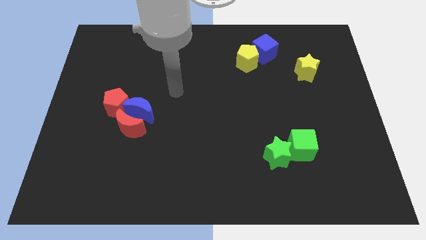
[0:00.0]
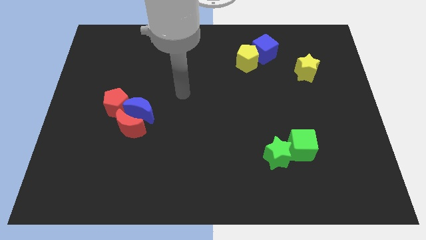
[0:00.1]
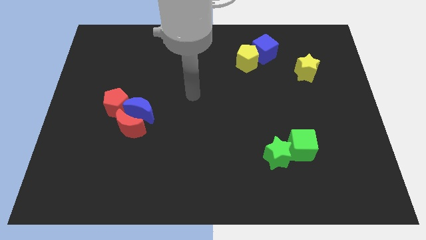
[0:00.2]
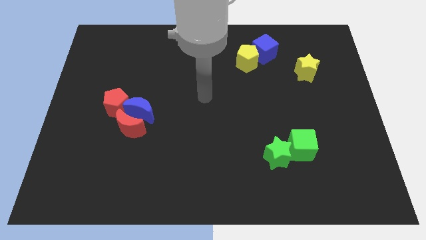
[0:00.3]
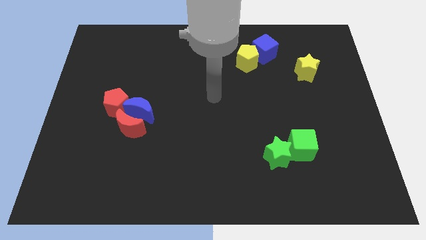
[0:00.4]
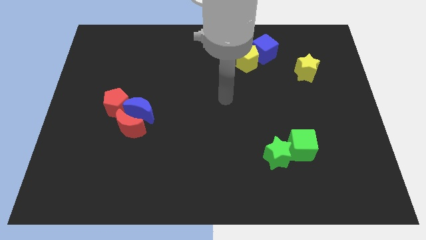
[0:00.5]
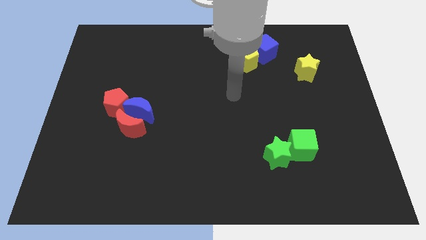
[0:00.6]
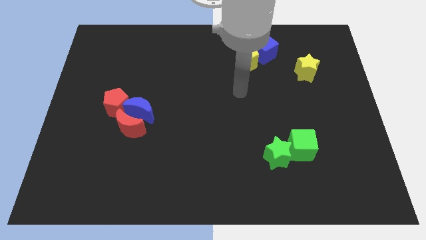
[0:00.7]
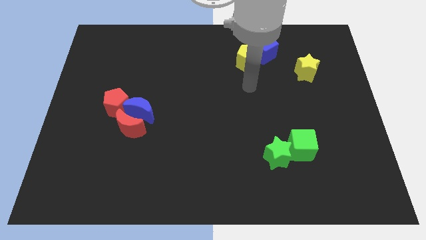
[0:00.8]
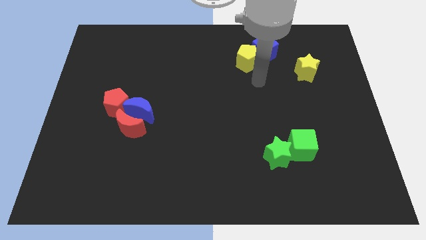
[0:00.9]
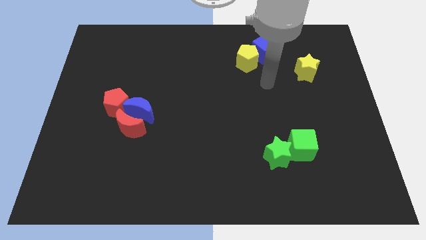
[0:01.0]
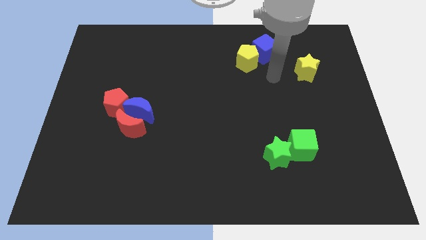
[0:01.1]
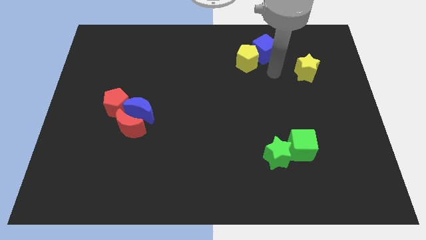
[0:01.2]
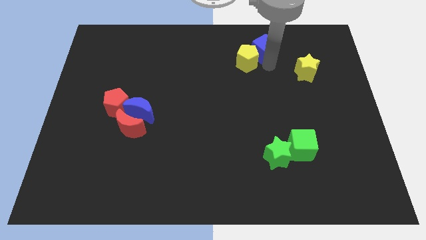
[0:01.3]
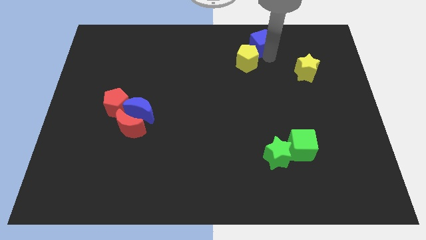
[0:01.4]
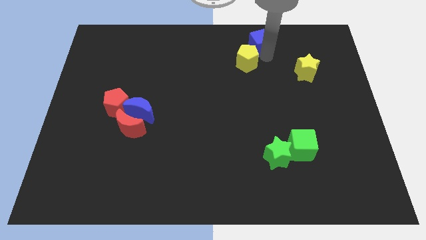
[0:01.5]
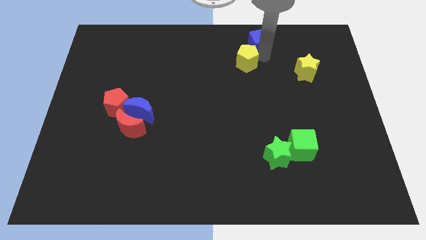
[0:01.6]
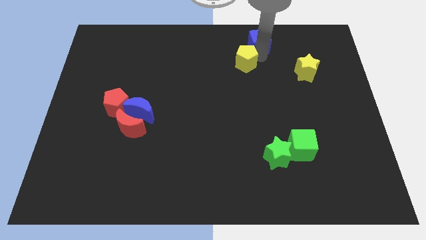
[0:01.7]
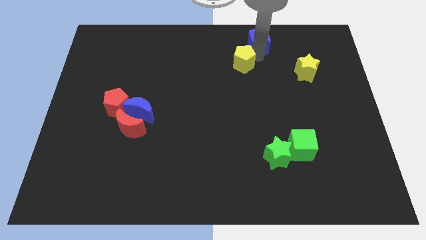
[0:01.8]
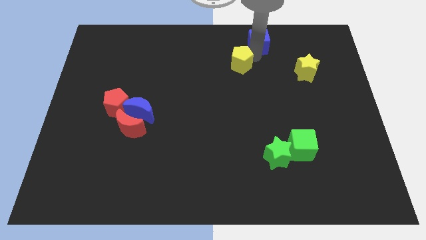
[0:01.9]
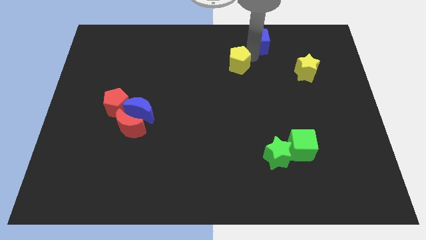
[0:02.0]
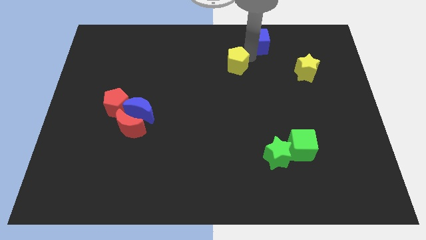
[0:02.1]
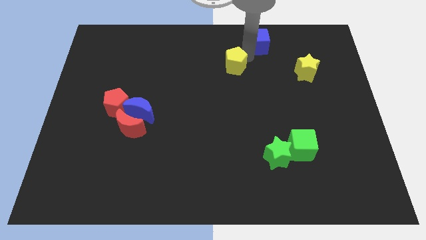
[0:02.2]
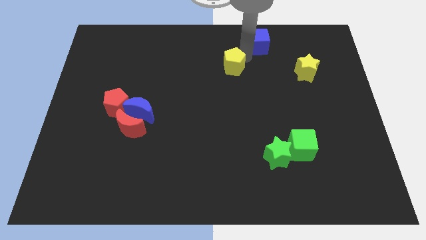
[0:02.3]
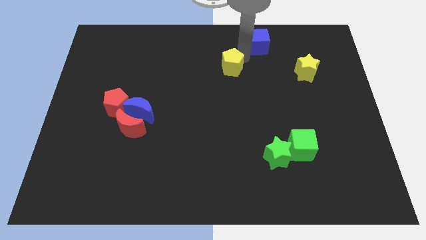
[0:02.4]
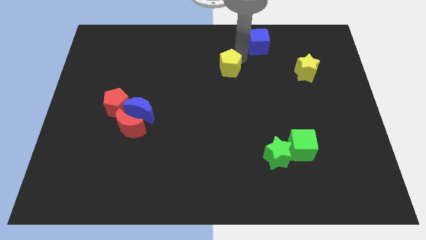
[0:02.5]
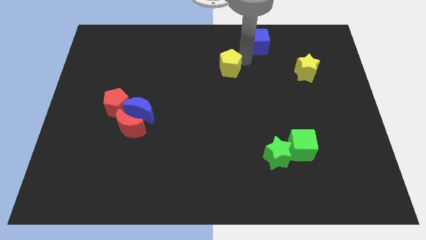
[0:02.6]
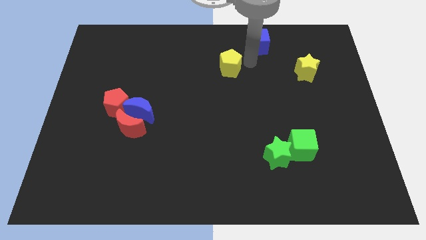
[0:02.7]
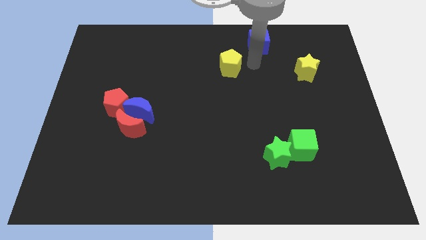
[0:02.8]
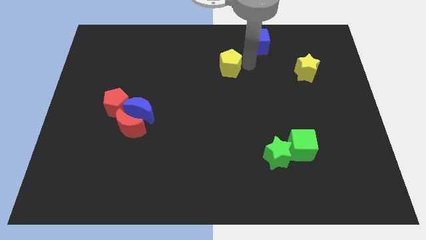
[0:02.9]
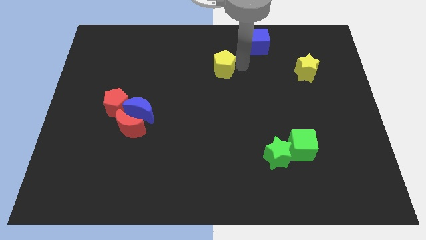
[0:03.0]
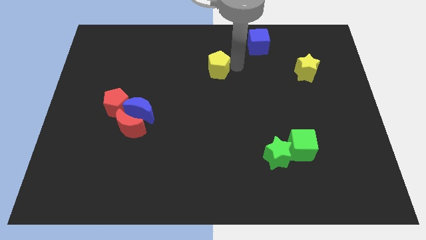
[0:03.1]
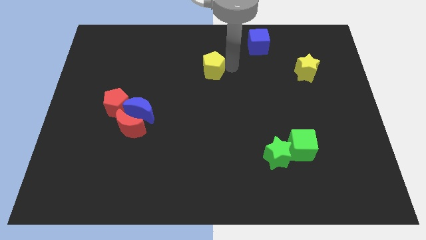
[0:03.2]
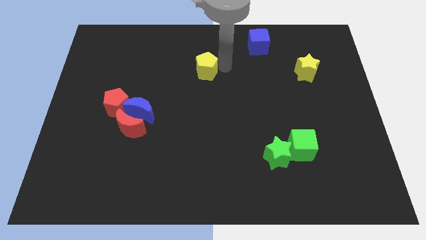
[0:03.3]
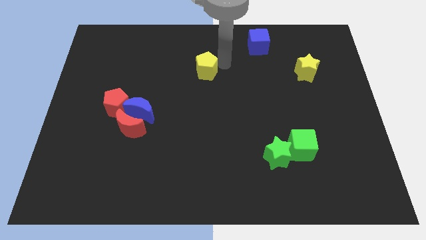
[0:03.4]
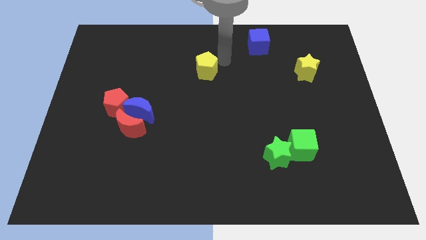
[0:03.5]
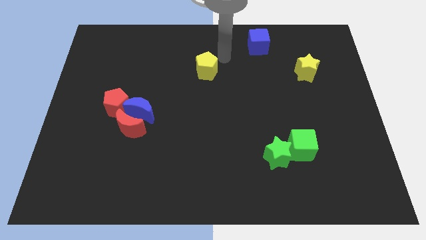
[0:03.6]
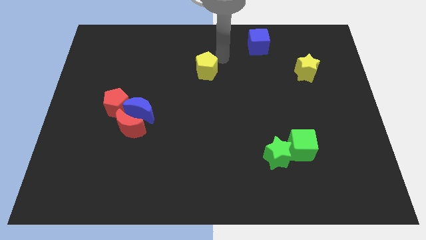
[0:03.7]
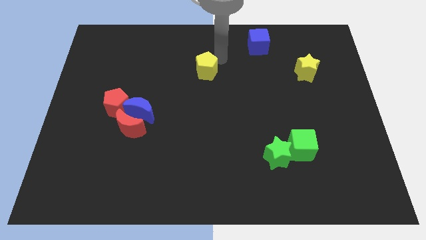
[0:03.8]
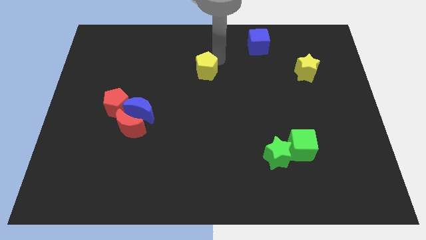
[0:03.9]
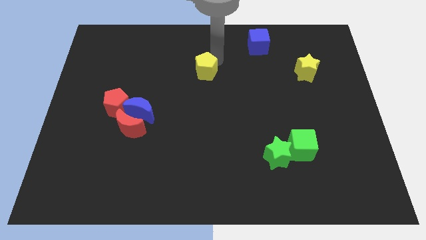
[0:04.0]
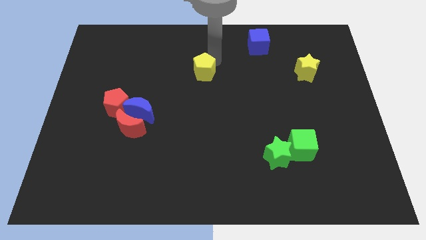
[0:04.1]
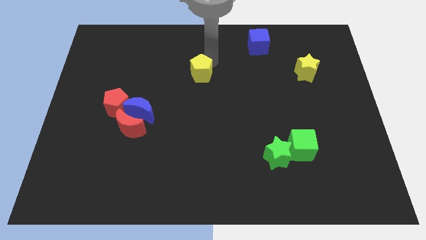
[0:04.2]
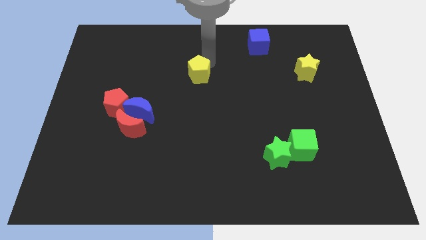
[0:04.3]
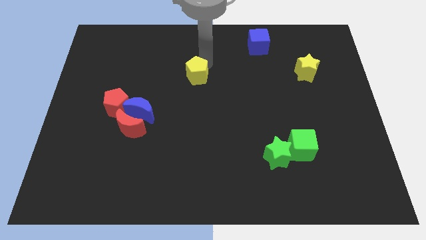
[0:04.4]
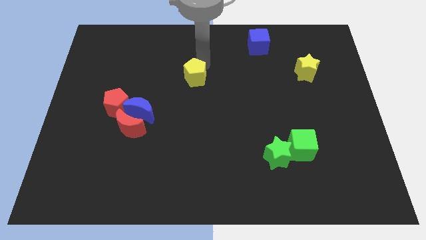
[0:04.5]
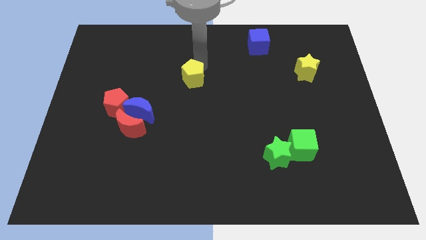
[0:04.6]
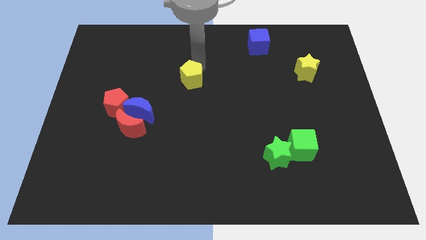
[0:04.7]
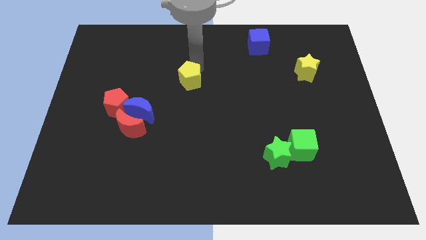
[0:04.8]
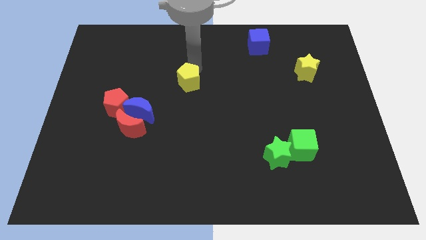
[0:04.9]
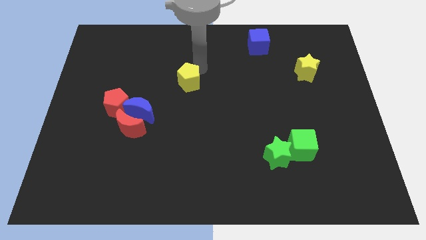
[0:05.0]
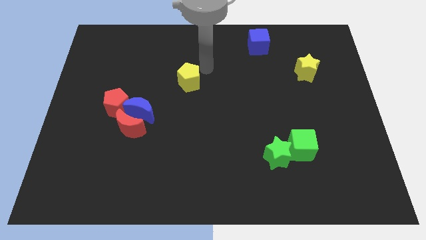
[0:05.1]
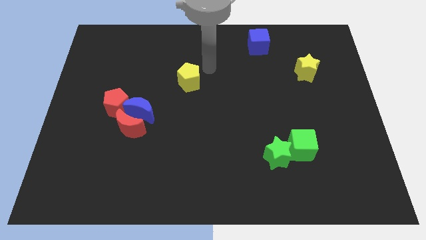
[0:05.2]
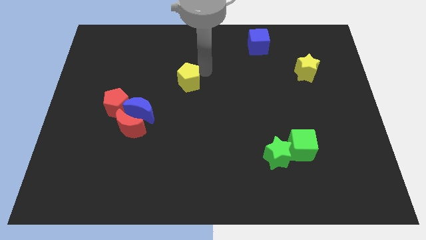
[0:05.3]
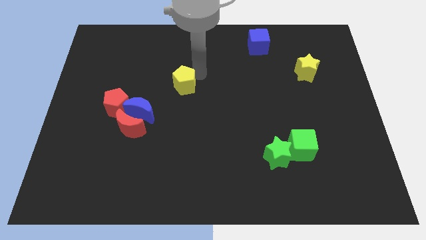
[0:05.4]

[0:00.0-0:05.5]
push the yellow pentagon to the top right side of the blue moon

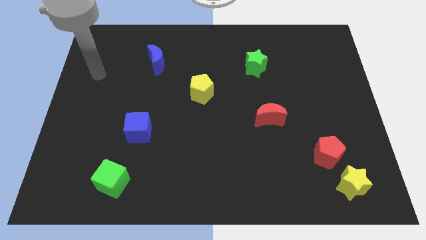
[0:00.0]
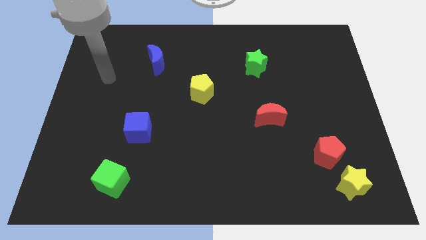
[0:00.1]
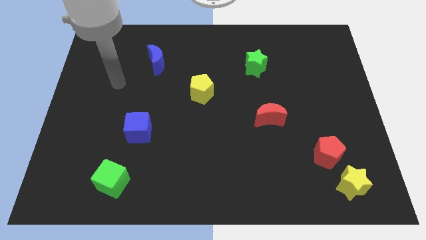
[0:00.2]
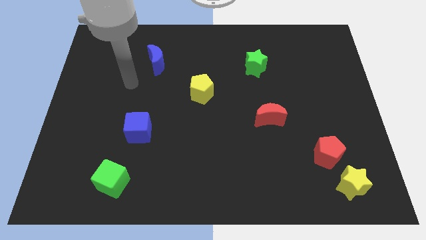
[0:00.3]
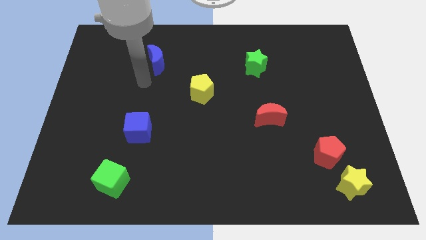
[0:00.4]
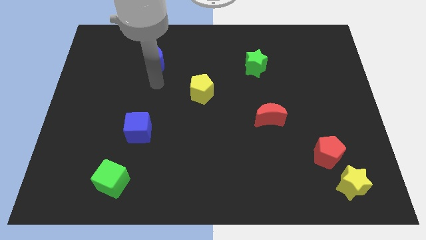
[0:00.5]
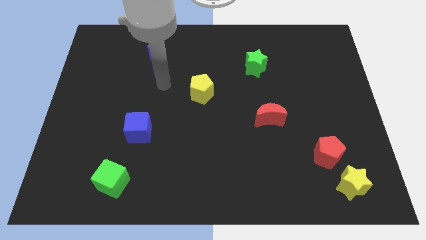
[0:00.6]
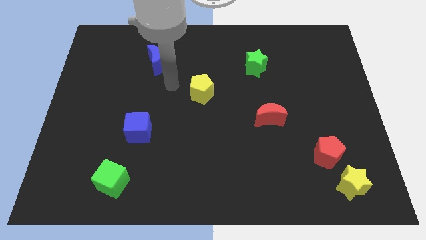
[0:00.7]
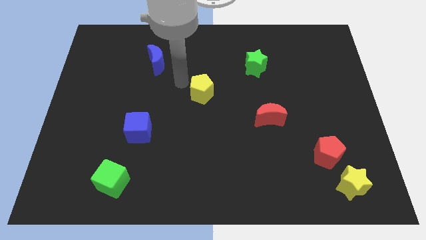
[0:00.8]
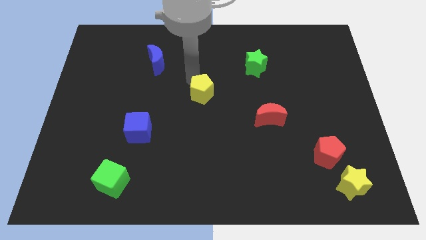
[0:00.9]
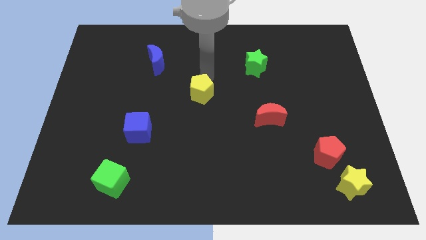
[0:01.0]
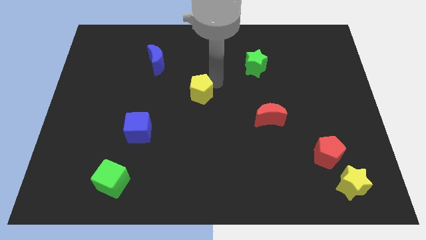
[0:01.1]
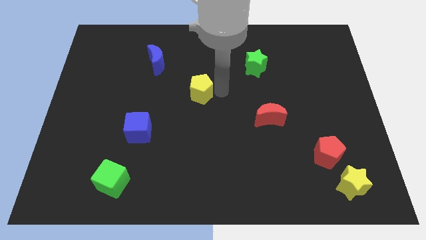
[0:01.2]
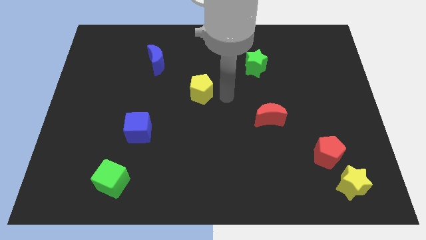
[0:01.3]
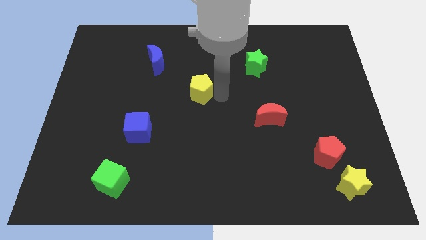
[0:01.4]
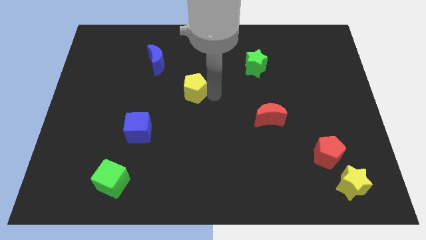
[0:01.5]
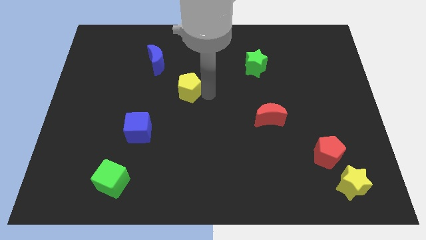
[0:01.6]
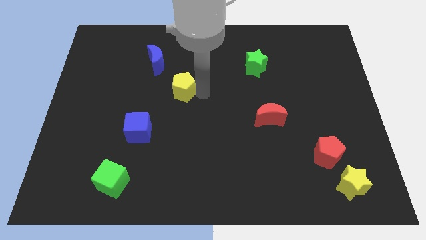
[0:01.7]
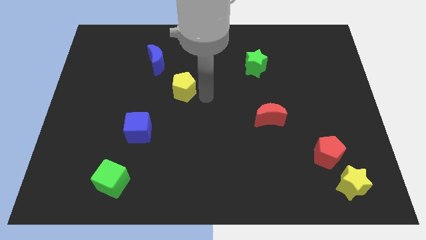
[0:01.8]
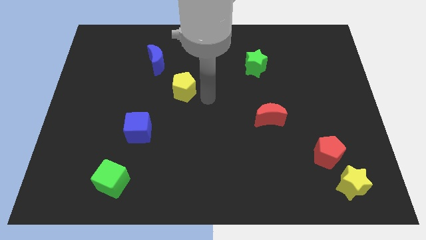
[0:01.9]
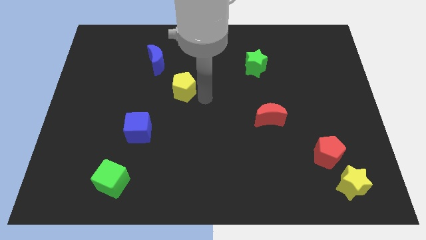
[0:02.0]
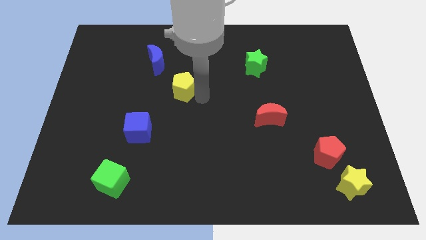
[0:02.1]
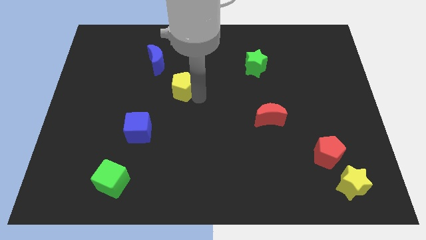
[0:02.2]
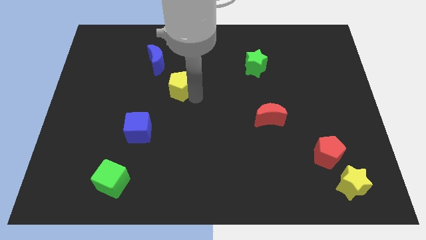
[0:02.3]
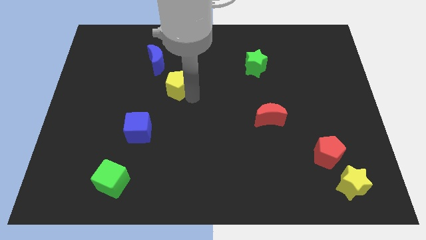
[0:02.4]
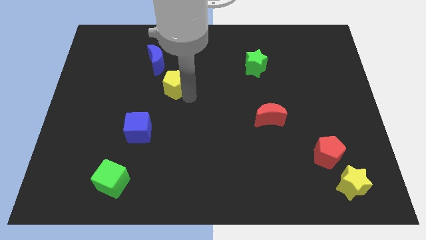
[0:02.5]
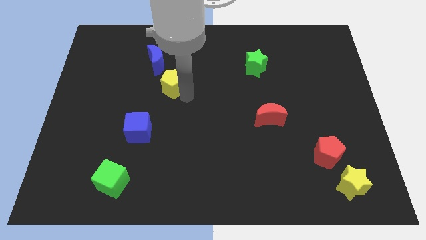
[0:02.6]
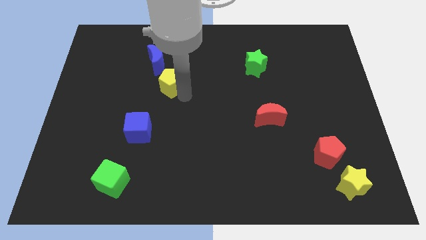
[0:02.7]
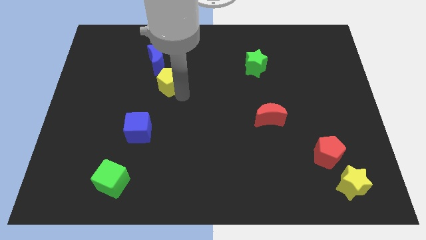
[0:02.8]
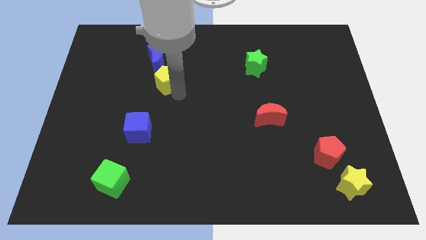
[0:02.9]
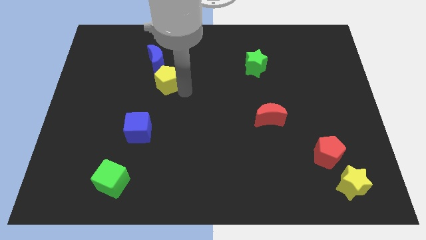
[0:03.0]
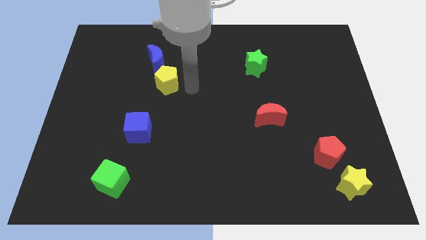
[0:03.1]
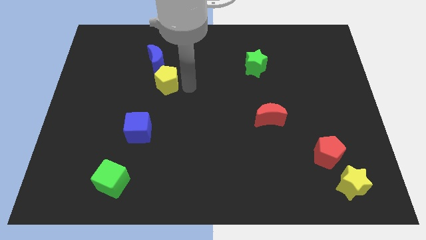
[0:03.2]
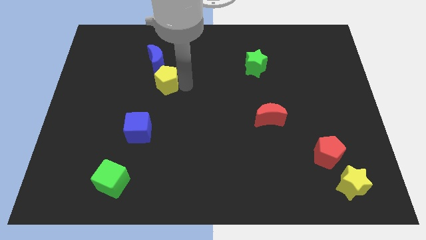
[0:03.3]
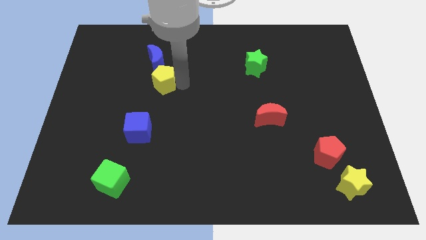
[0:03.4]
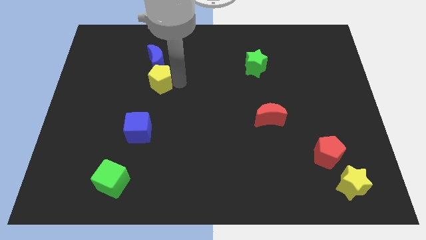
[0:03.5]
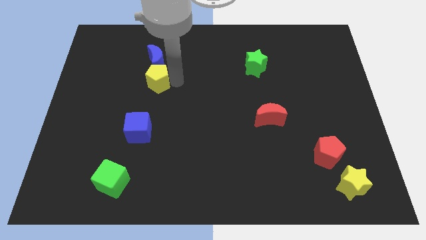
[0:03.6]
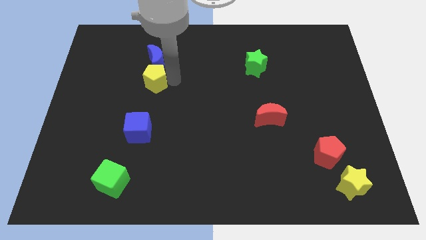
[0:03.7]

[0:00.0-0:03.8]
push the yellow pentagon diagonally down and to the left of the blue moon
